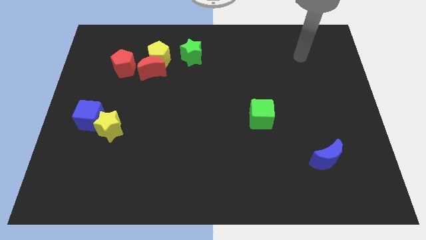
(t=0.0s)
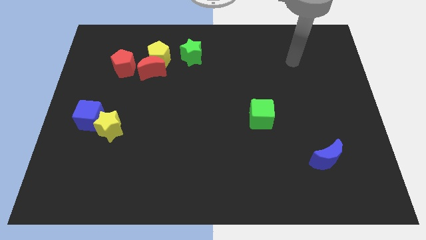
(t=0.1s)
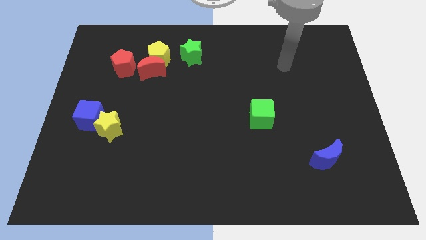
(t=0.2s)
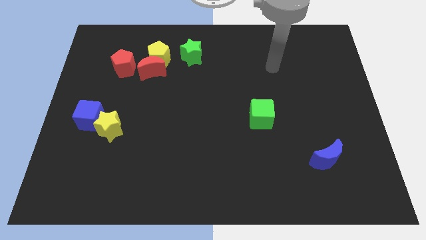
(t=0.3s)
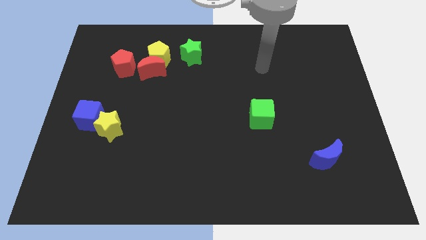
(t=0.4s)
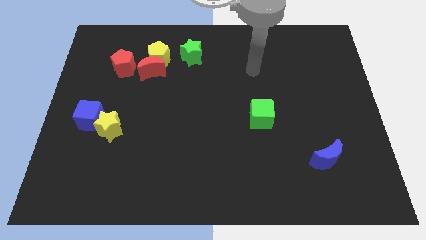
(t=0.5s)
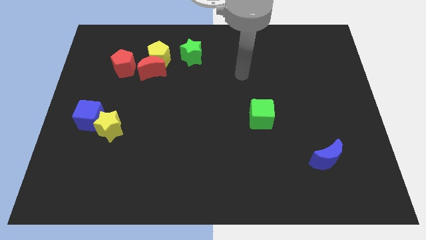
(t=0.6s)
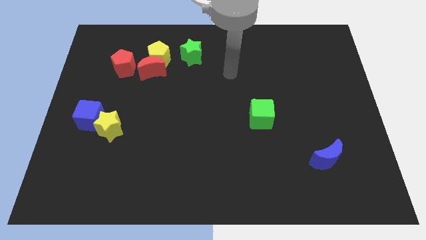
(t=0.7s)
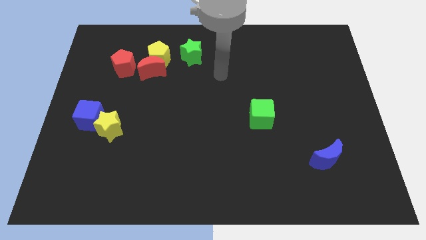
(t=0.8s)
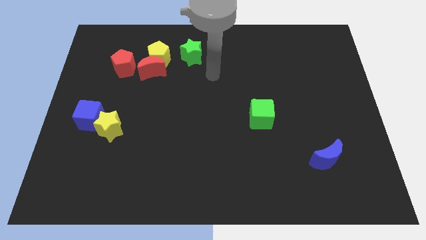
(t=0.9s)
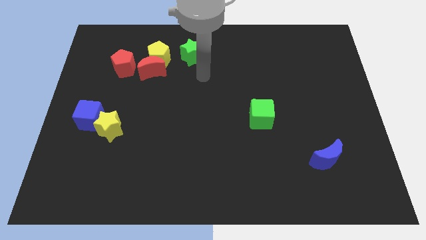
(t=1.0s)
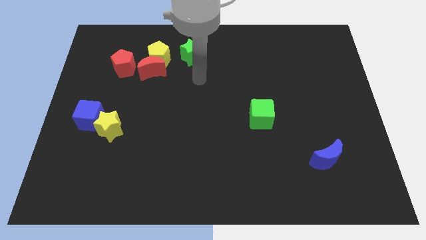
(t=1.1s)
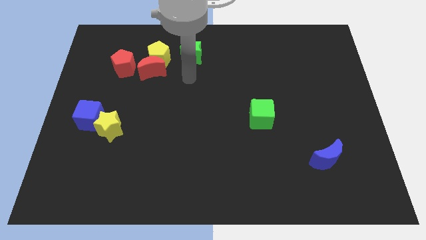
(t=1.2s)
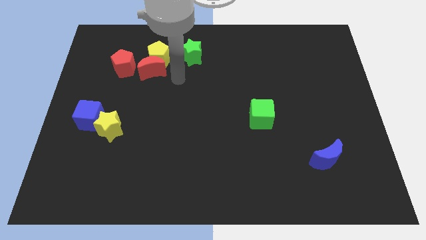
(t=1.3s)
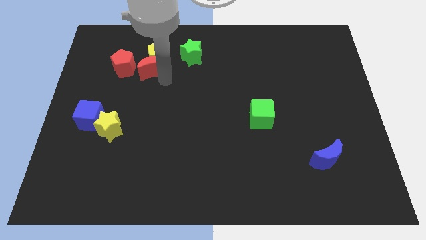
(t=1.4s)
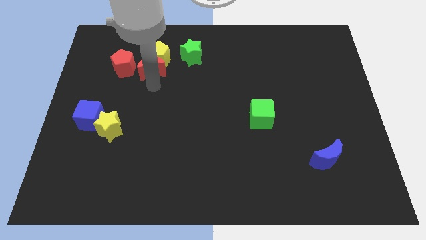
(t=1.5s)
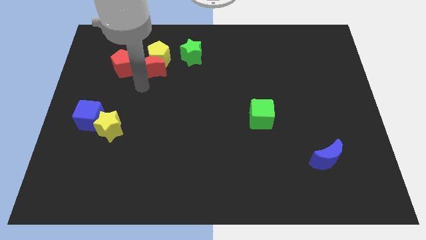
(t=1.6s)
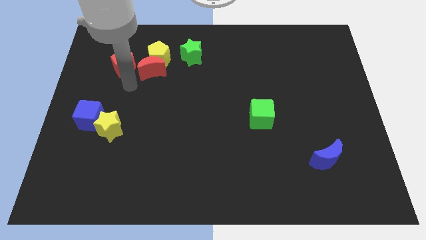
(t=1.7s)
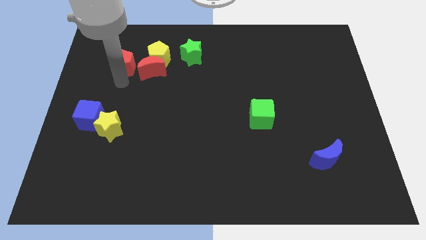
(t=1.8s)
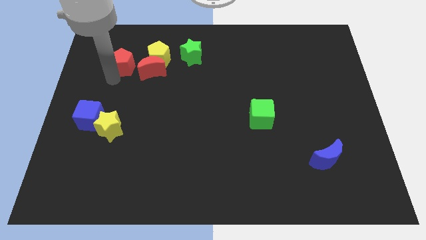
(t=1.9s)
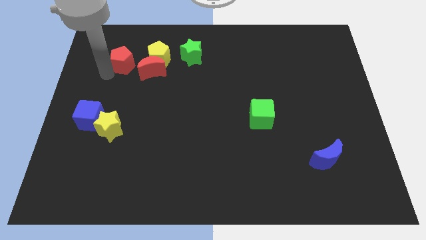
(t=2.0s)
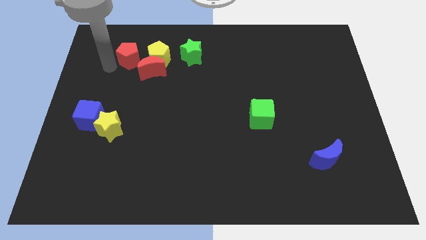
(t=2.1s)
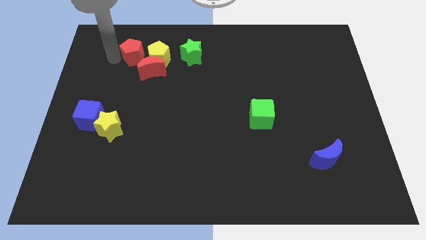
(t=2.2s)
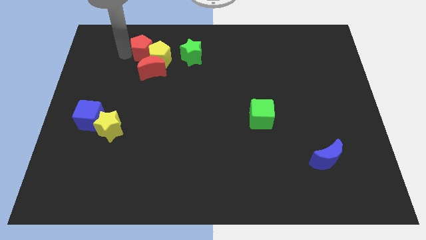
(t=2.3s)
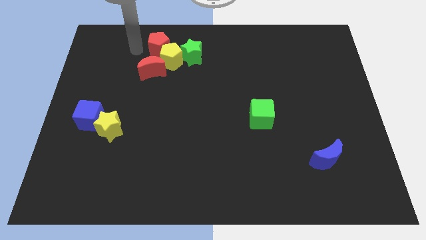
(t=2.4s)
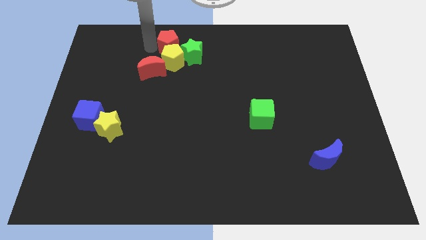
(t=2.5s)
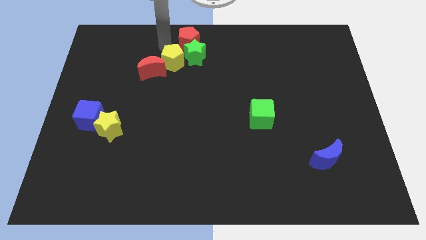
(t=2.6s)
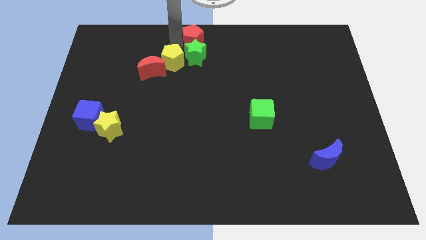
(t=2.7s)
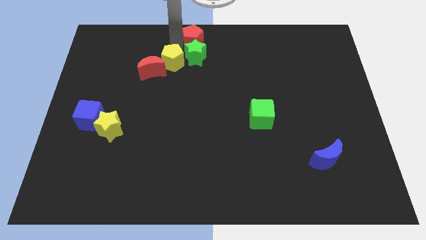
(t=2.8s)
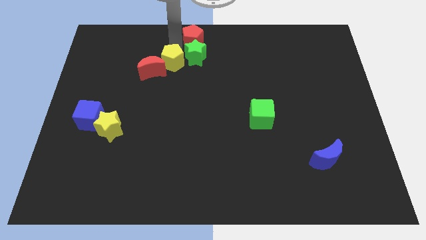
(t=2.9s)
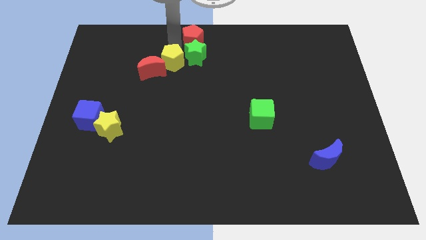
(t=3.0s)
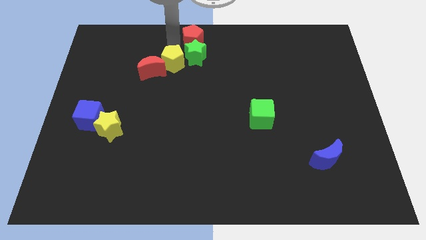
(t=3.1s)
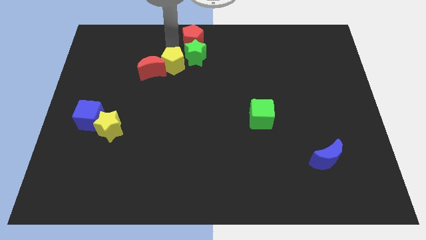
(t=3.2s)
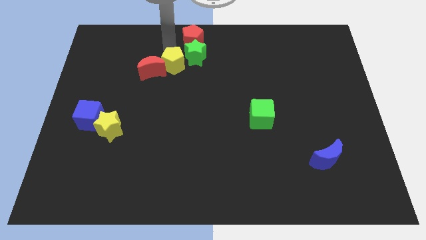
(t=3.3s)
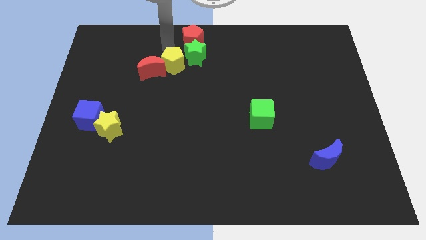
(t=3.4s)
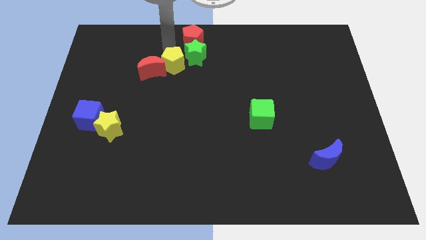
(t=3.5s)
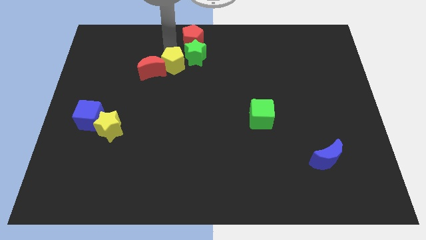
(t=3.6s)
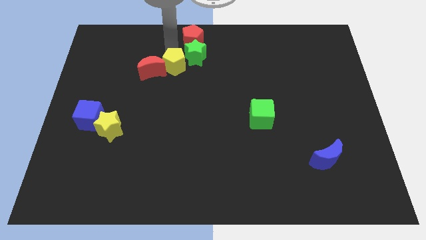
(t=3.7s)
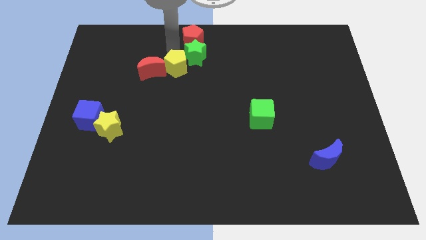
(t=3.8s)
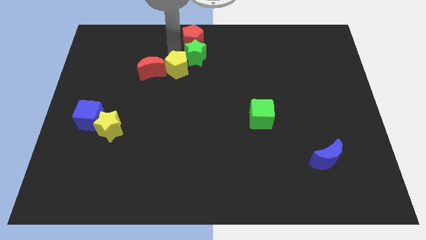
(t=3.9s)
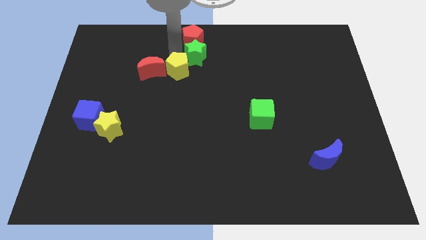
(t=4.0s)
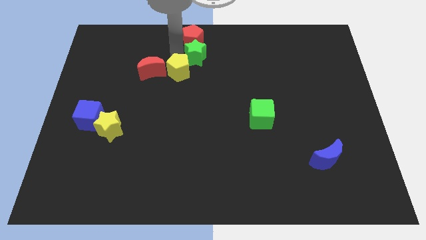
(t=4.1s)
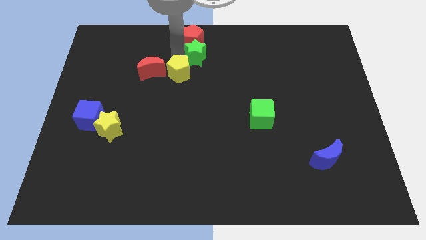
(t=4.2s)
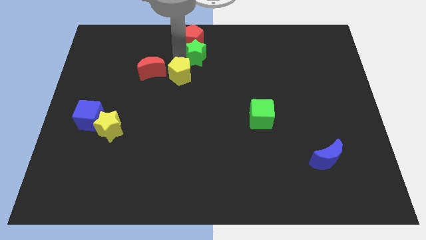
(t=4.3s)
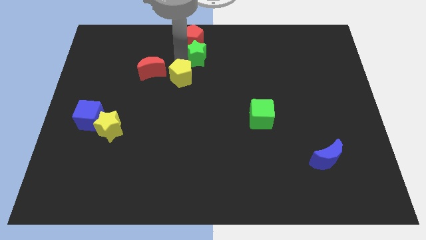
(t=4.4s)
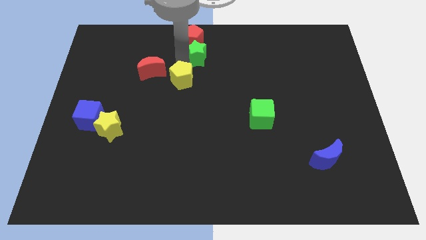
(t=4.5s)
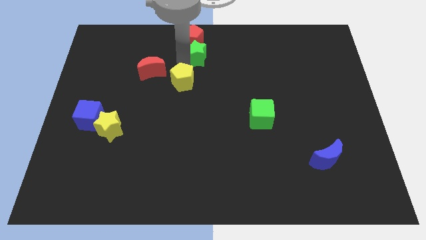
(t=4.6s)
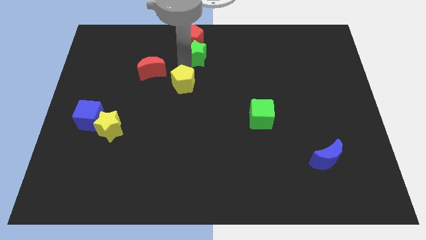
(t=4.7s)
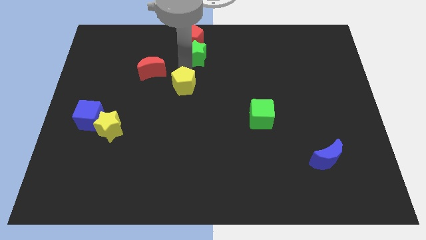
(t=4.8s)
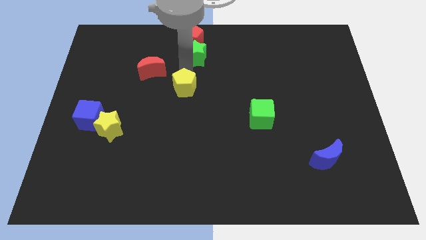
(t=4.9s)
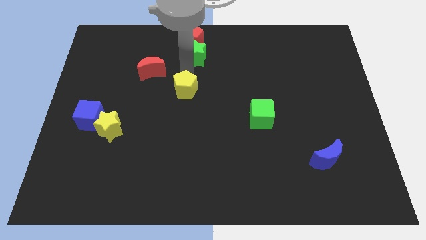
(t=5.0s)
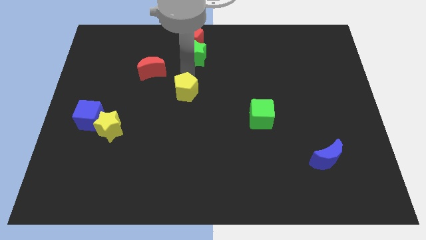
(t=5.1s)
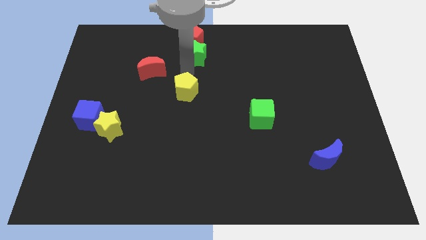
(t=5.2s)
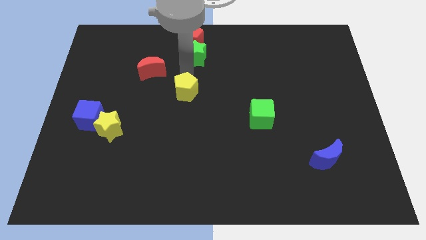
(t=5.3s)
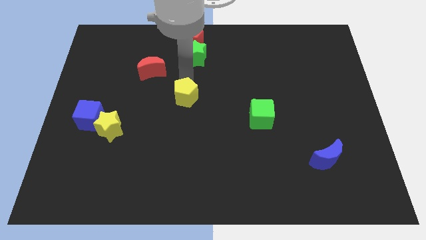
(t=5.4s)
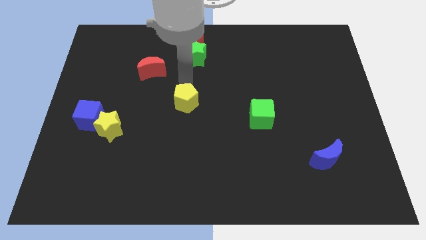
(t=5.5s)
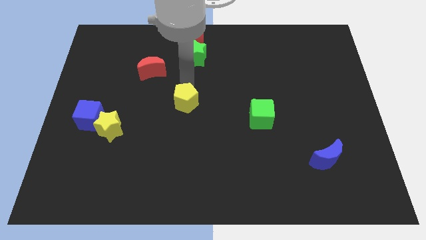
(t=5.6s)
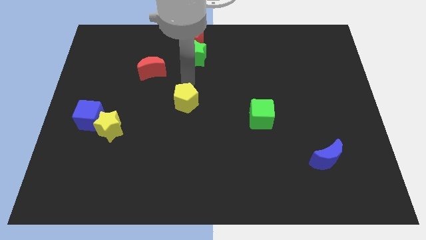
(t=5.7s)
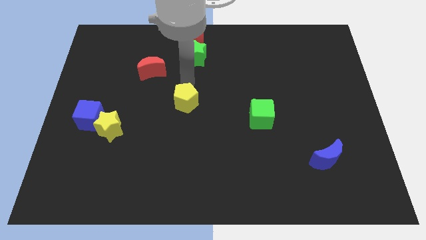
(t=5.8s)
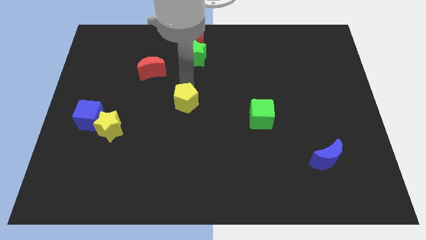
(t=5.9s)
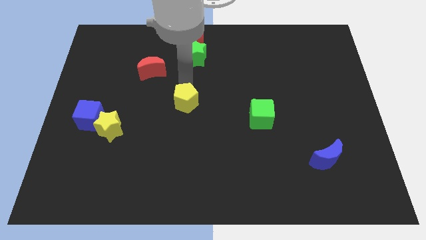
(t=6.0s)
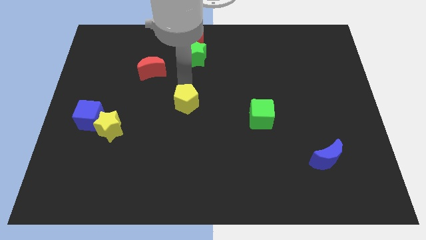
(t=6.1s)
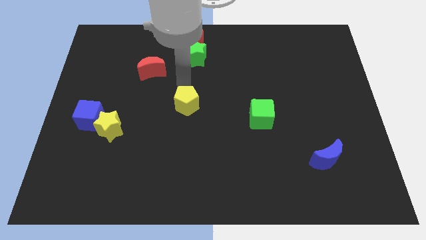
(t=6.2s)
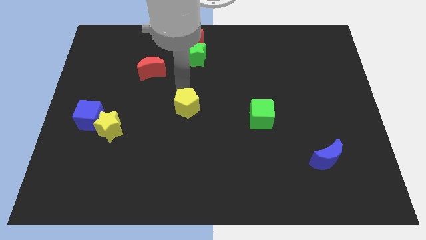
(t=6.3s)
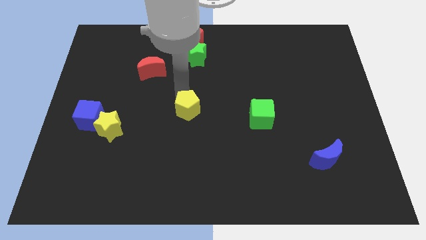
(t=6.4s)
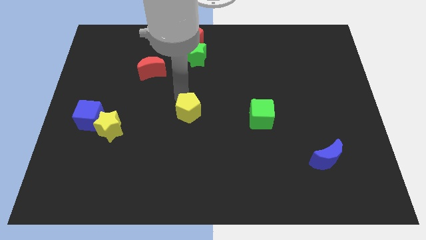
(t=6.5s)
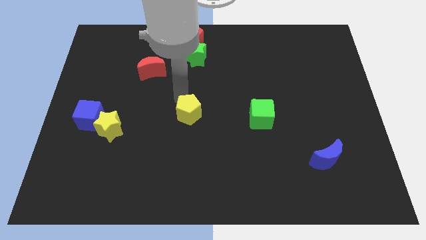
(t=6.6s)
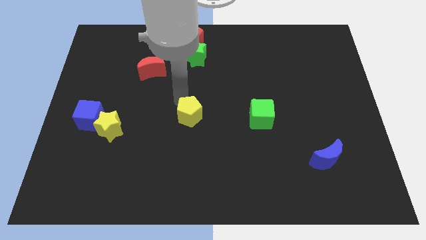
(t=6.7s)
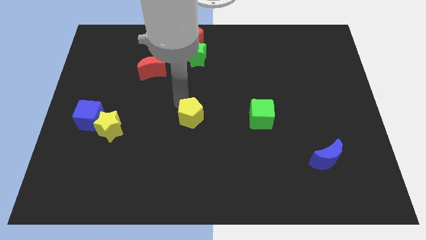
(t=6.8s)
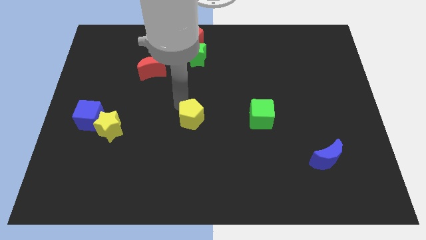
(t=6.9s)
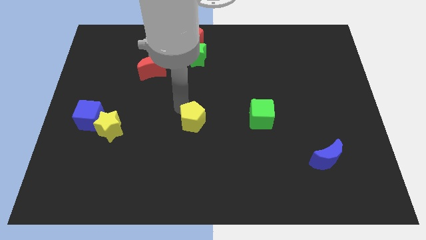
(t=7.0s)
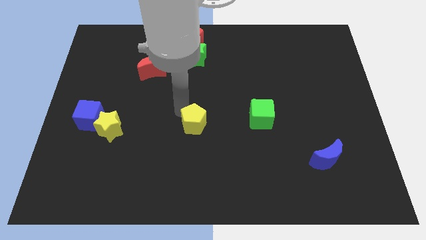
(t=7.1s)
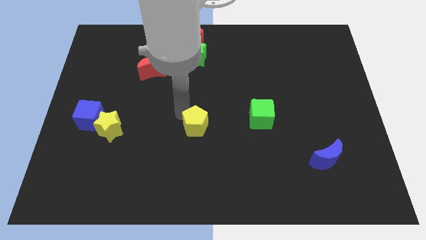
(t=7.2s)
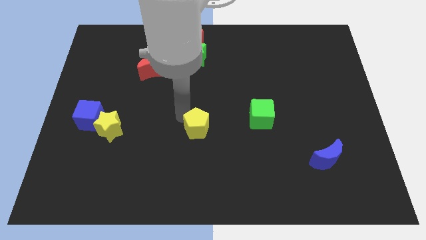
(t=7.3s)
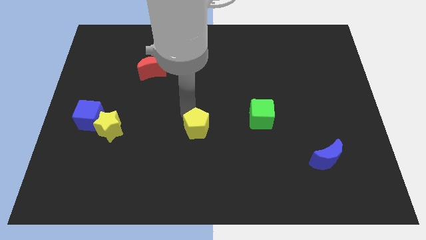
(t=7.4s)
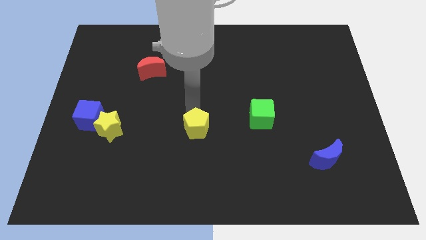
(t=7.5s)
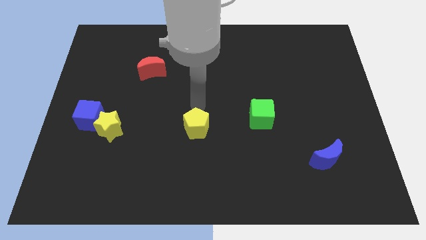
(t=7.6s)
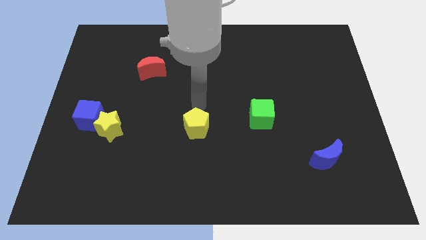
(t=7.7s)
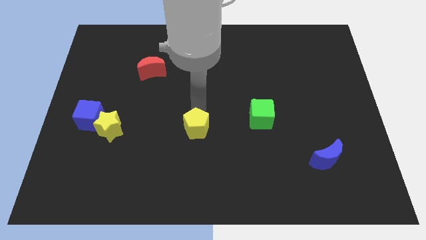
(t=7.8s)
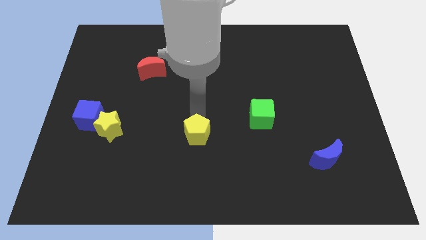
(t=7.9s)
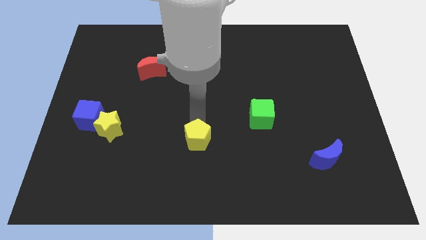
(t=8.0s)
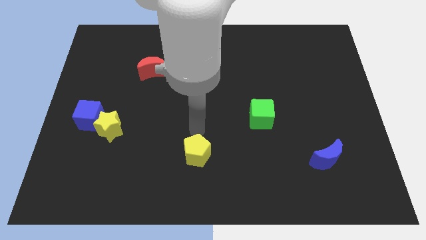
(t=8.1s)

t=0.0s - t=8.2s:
slide the yellow pentagon to the bottom
